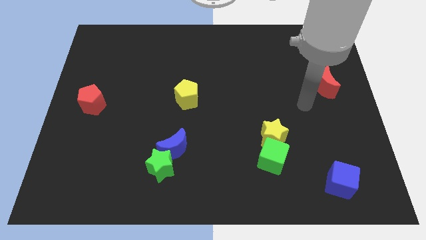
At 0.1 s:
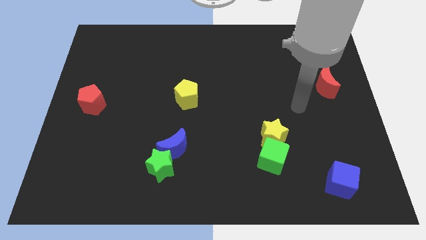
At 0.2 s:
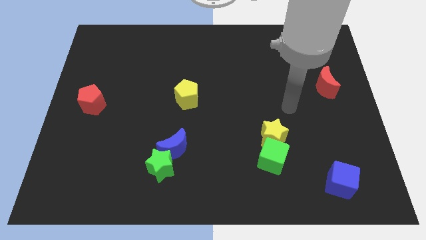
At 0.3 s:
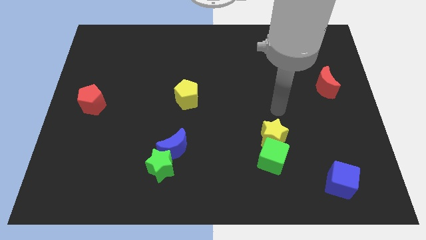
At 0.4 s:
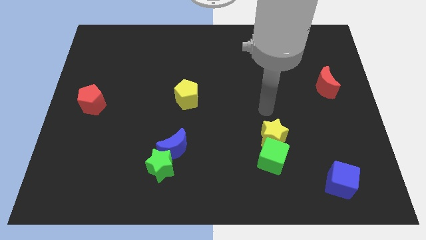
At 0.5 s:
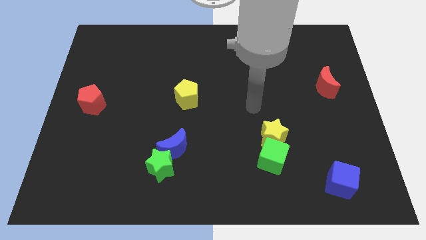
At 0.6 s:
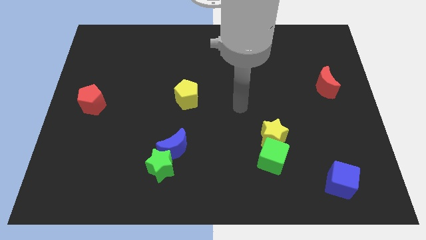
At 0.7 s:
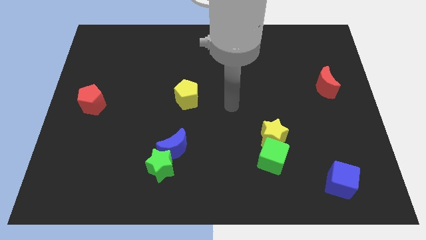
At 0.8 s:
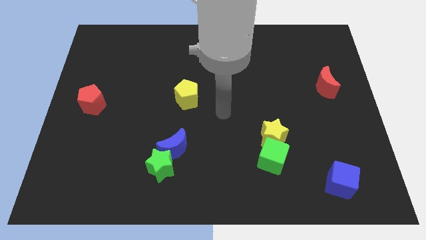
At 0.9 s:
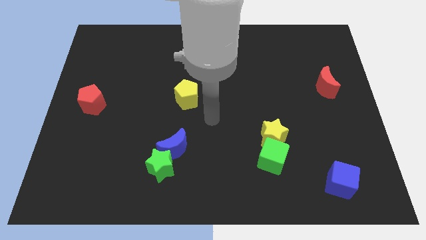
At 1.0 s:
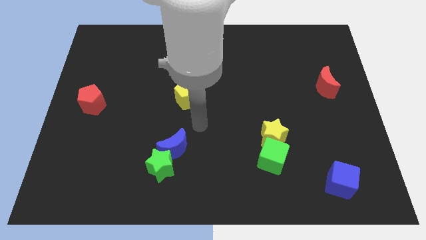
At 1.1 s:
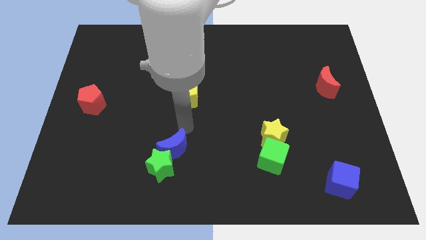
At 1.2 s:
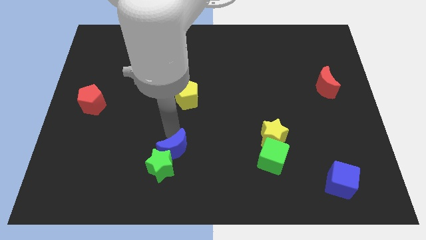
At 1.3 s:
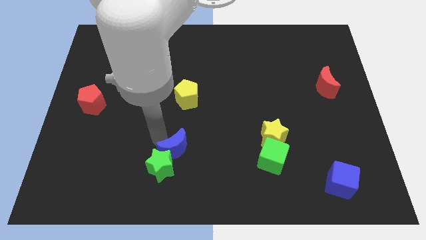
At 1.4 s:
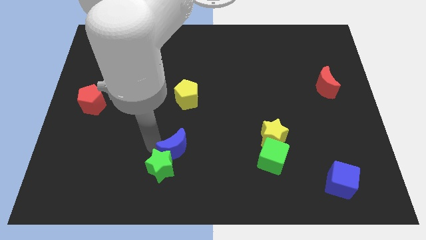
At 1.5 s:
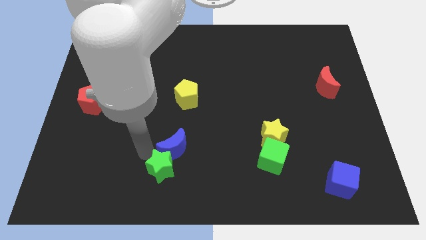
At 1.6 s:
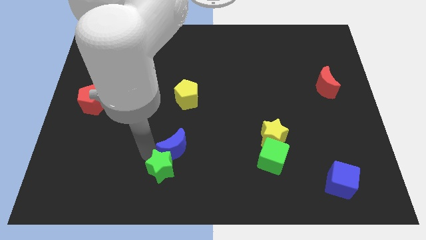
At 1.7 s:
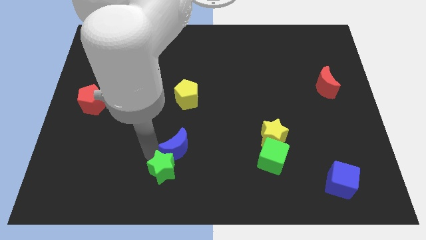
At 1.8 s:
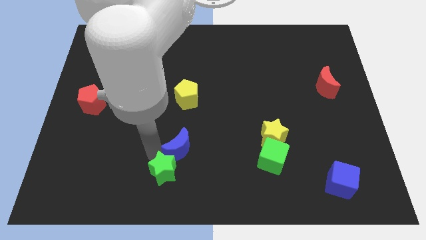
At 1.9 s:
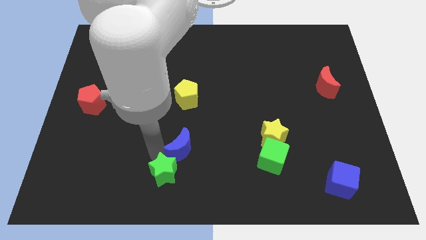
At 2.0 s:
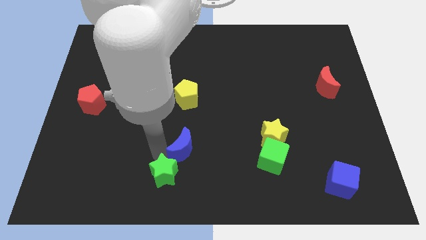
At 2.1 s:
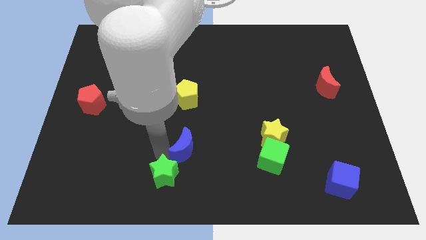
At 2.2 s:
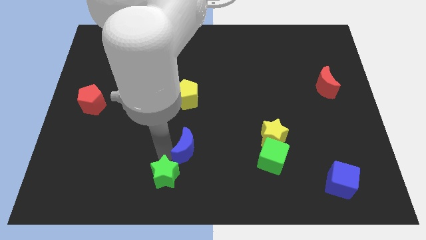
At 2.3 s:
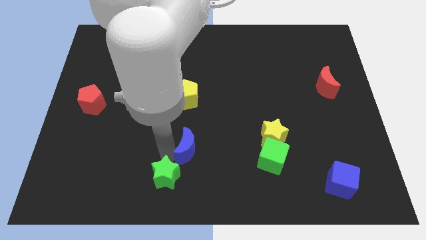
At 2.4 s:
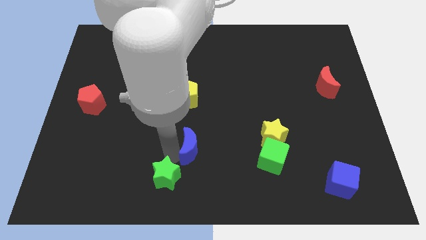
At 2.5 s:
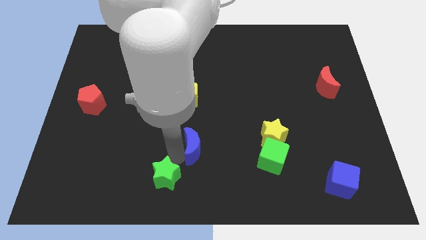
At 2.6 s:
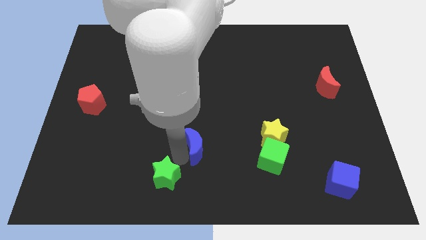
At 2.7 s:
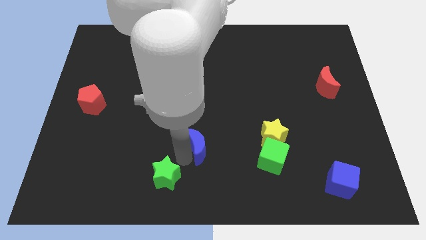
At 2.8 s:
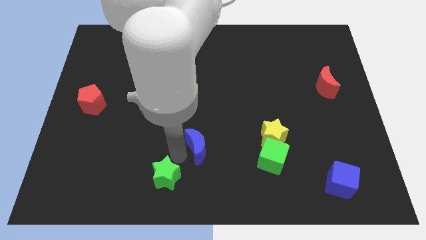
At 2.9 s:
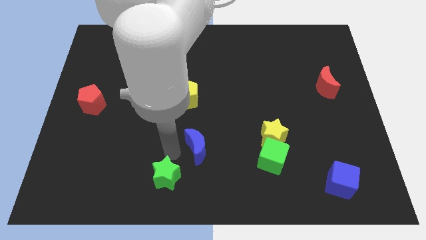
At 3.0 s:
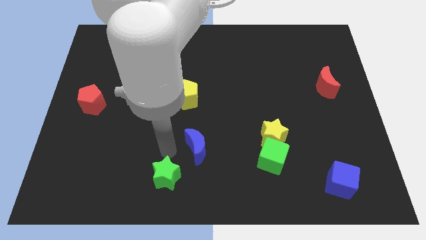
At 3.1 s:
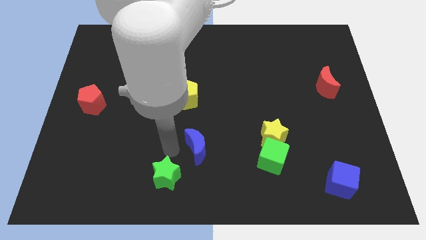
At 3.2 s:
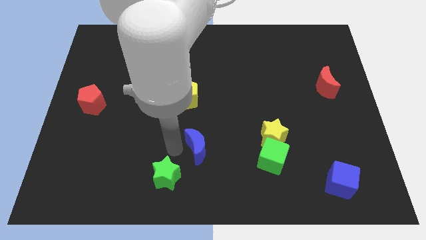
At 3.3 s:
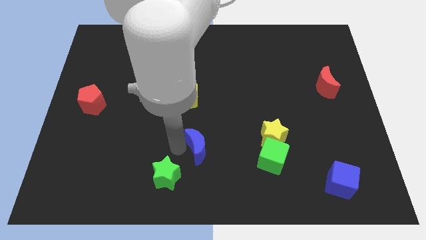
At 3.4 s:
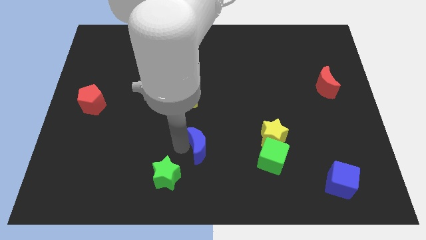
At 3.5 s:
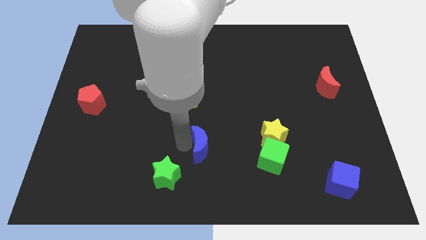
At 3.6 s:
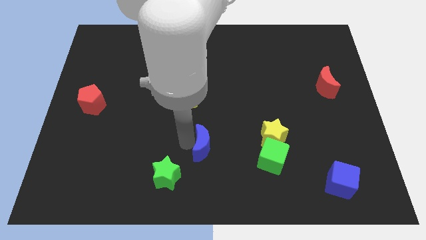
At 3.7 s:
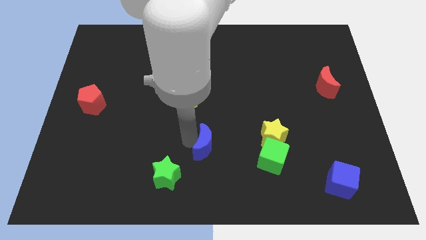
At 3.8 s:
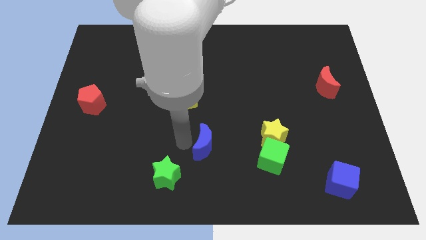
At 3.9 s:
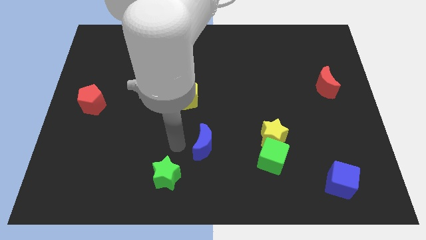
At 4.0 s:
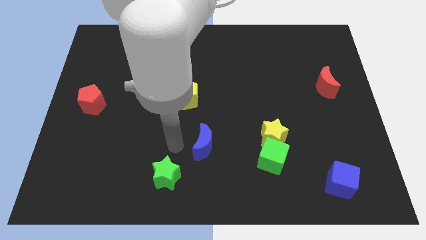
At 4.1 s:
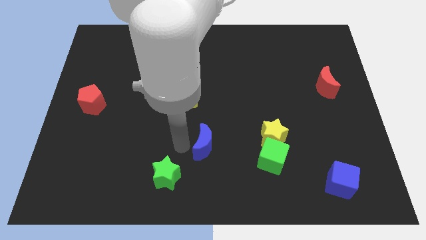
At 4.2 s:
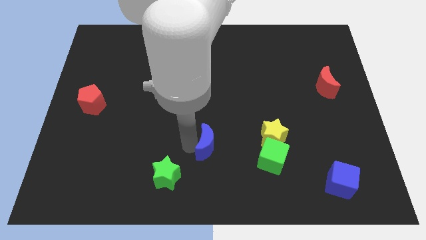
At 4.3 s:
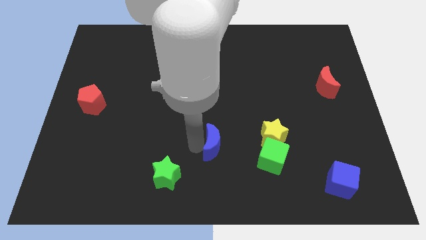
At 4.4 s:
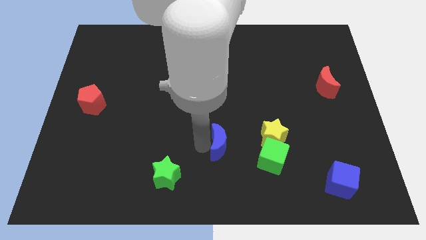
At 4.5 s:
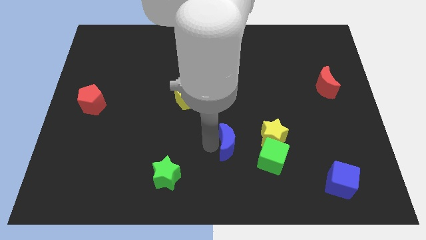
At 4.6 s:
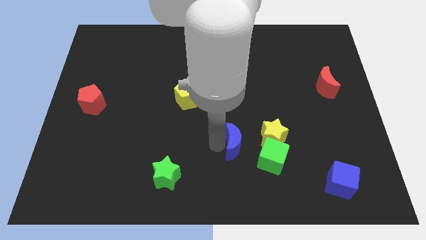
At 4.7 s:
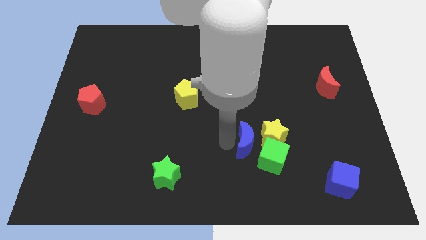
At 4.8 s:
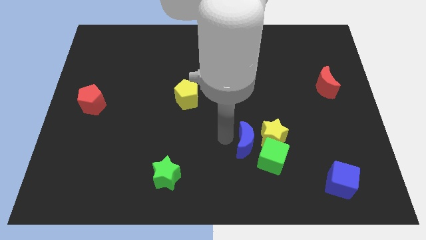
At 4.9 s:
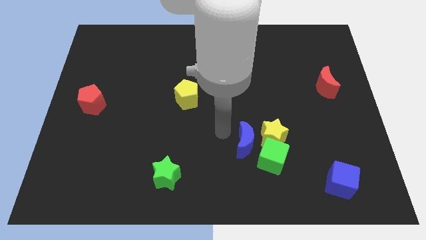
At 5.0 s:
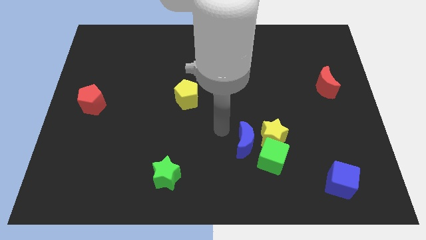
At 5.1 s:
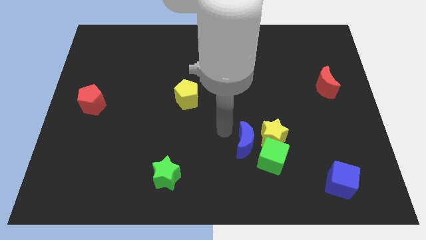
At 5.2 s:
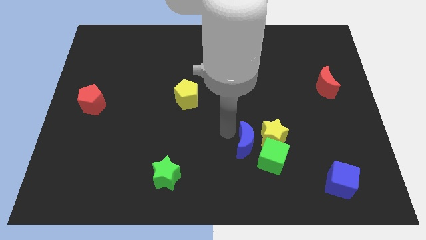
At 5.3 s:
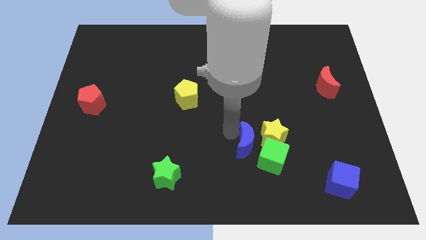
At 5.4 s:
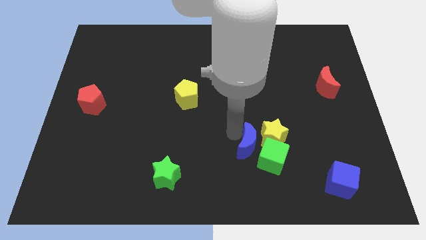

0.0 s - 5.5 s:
move the blue moon to the green cube

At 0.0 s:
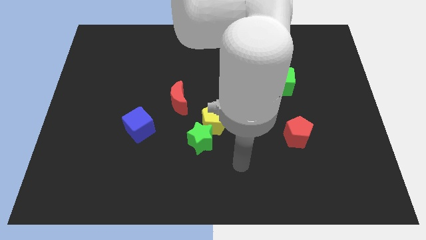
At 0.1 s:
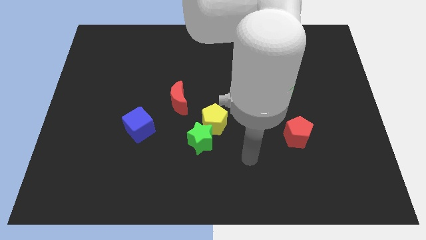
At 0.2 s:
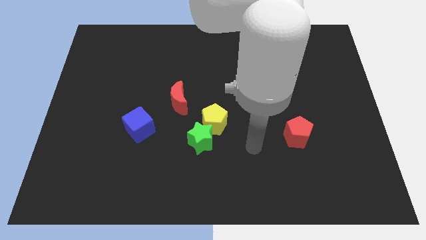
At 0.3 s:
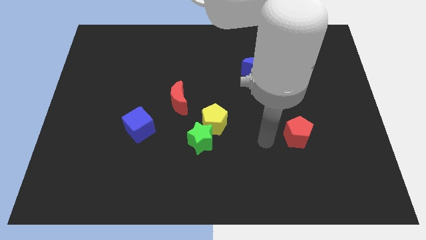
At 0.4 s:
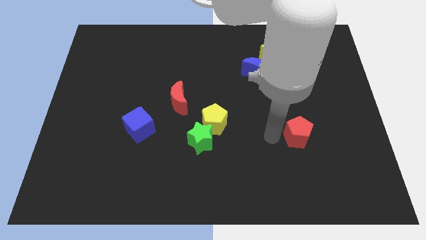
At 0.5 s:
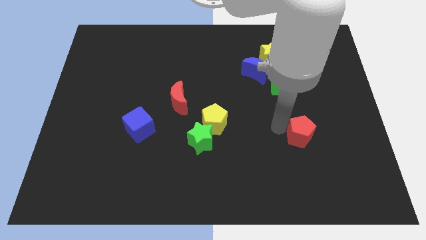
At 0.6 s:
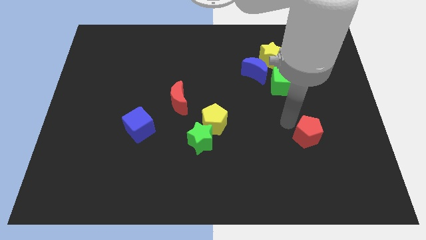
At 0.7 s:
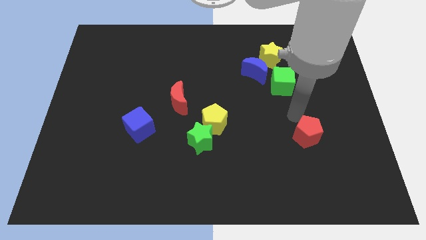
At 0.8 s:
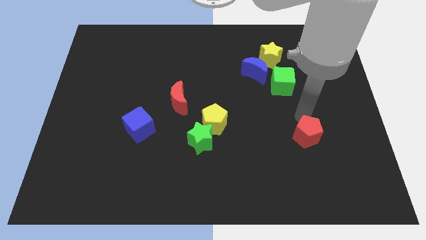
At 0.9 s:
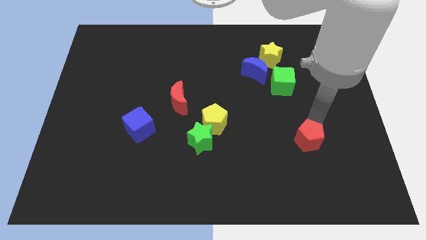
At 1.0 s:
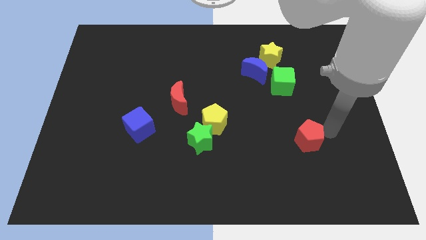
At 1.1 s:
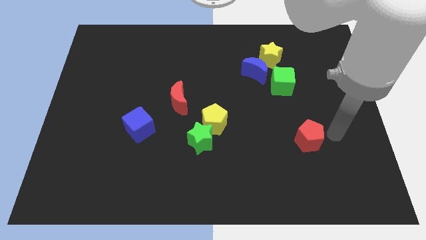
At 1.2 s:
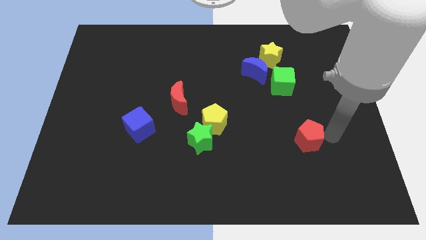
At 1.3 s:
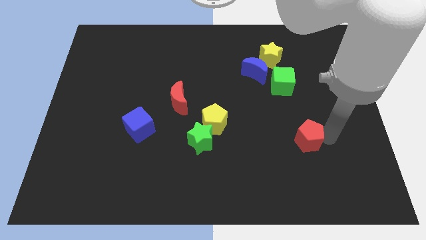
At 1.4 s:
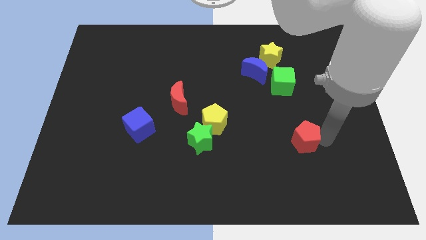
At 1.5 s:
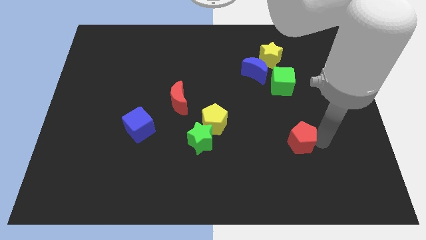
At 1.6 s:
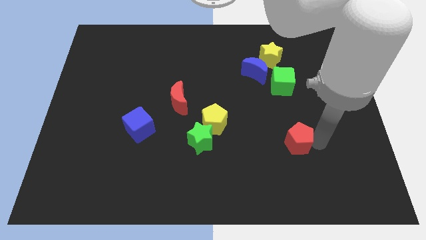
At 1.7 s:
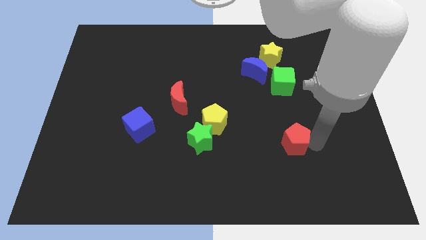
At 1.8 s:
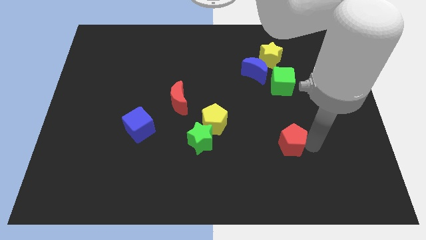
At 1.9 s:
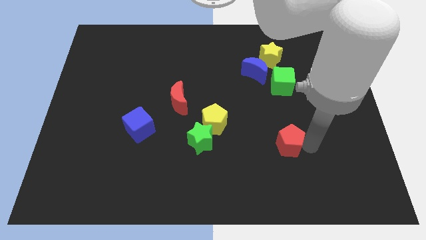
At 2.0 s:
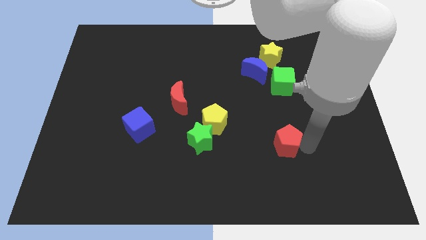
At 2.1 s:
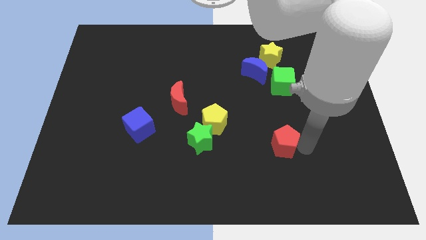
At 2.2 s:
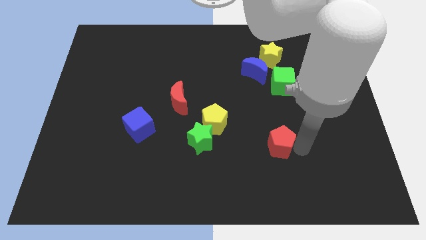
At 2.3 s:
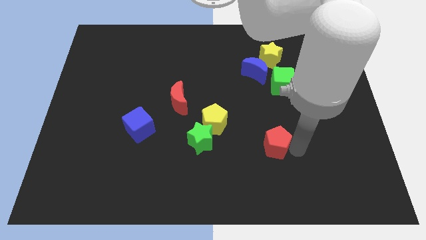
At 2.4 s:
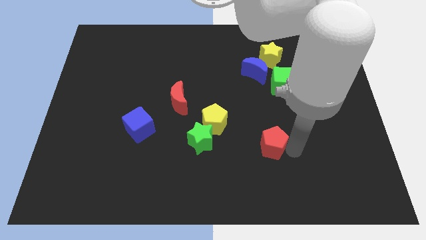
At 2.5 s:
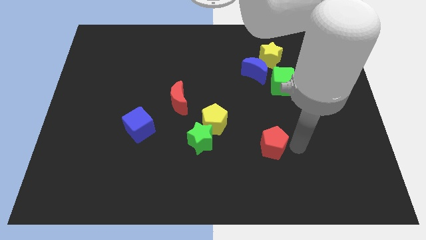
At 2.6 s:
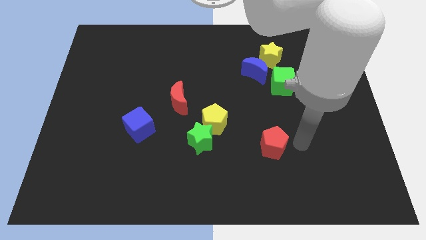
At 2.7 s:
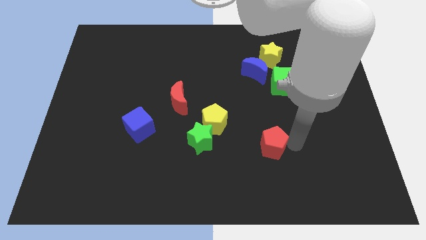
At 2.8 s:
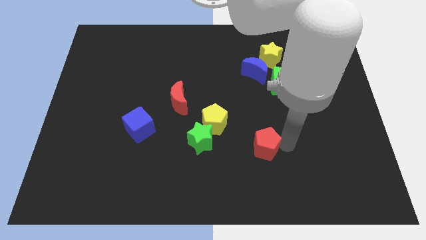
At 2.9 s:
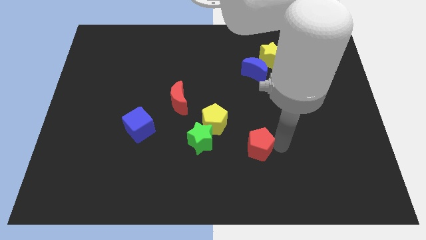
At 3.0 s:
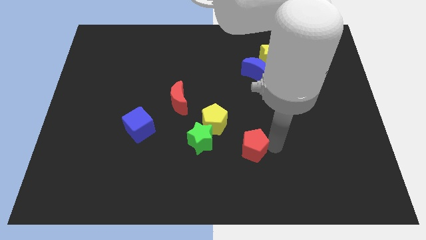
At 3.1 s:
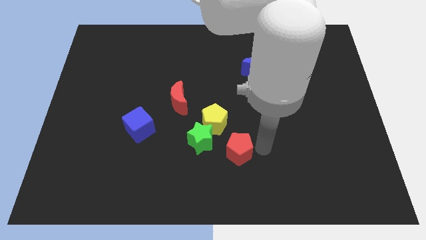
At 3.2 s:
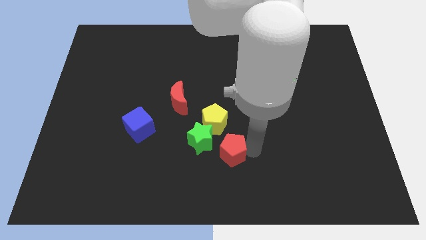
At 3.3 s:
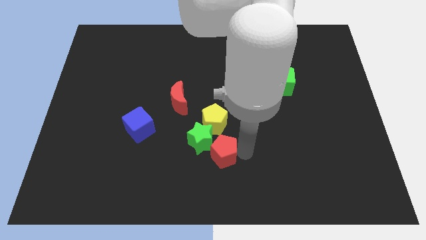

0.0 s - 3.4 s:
push the red pentagon close to the green star
